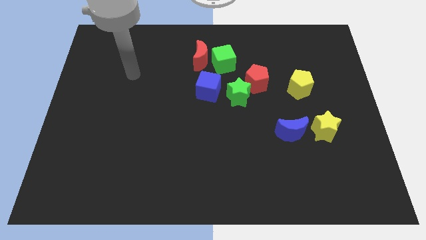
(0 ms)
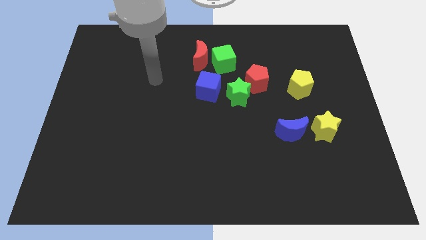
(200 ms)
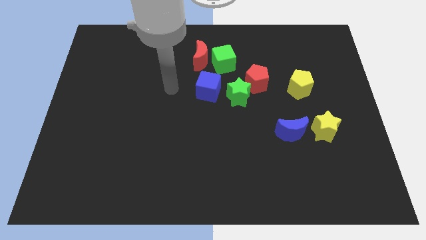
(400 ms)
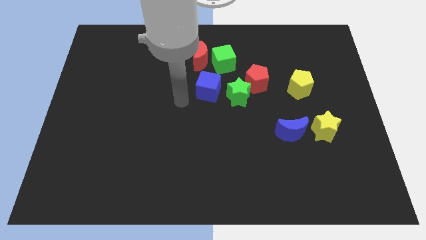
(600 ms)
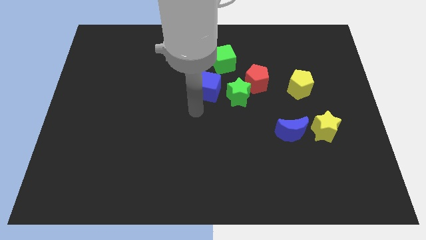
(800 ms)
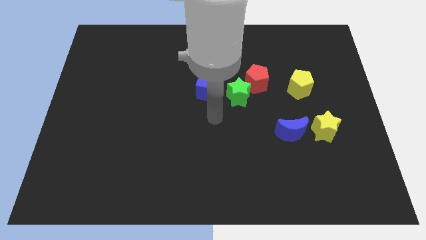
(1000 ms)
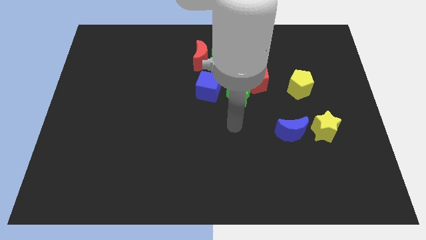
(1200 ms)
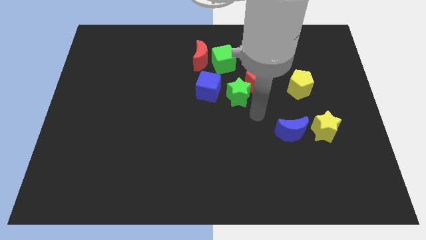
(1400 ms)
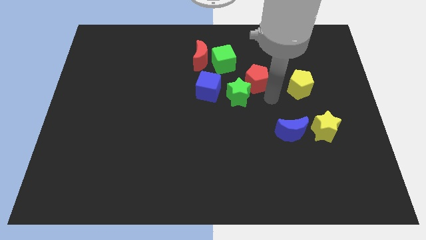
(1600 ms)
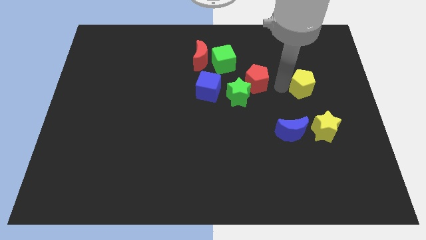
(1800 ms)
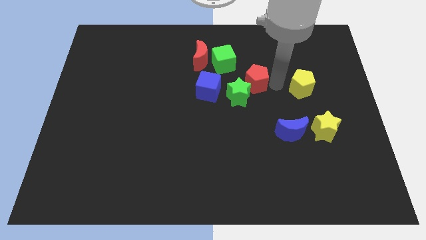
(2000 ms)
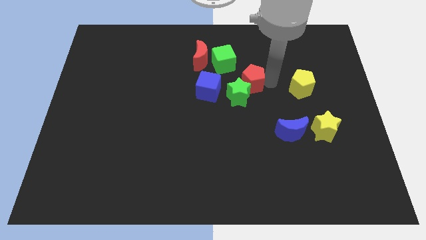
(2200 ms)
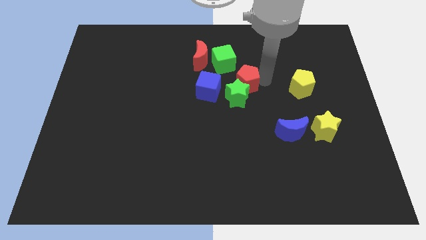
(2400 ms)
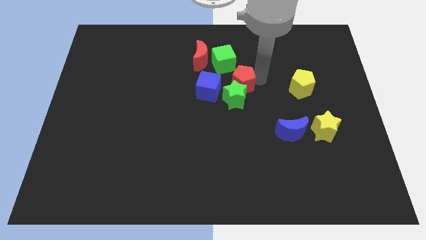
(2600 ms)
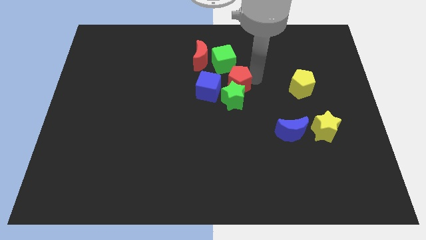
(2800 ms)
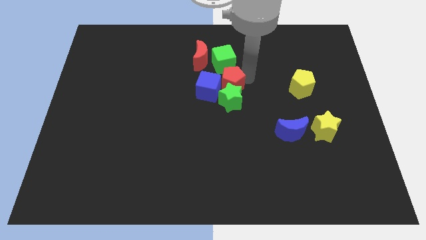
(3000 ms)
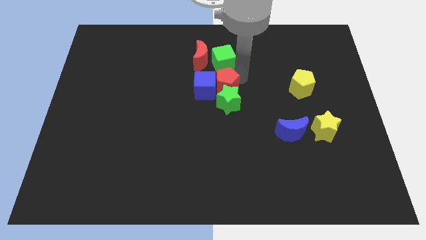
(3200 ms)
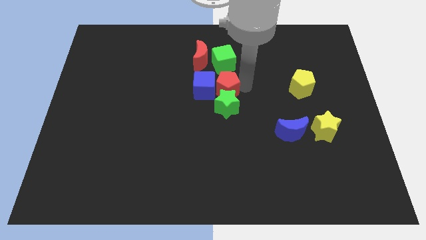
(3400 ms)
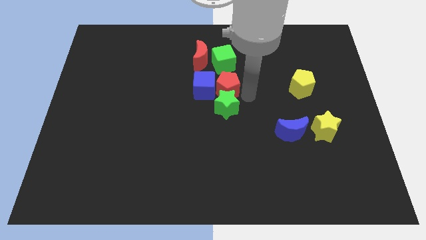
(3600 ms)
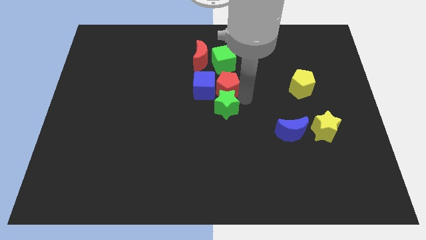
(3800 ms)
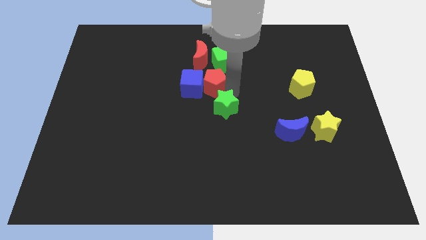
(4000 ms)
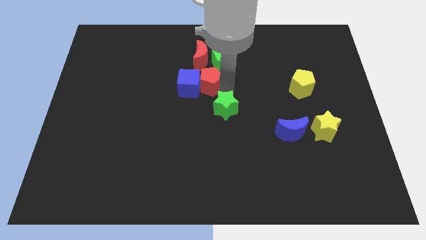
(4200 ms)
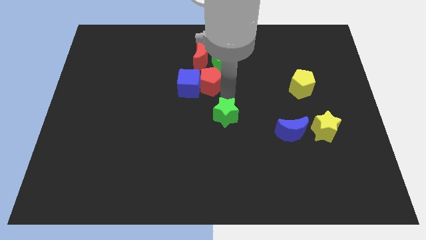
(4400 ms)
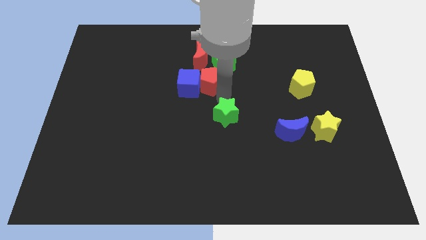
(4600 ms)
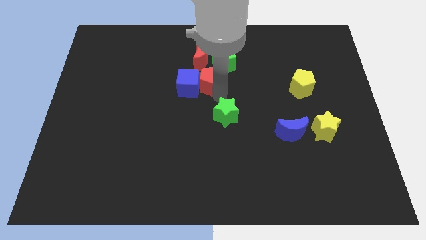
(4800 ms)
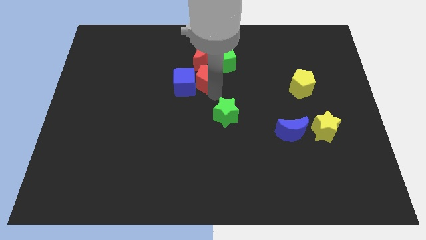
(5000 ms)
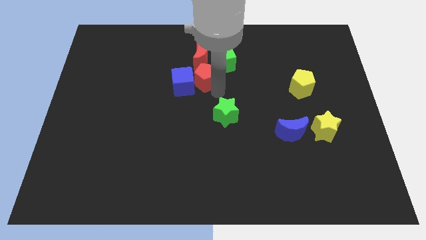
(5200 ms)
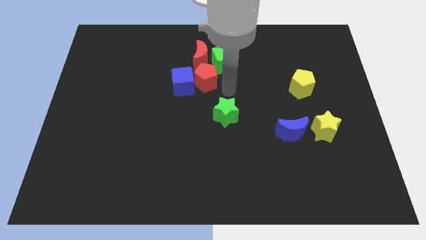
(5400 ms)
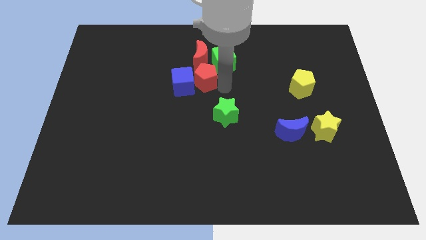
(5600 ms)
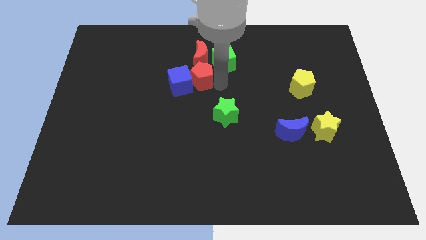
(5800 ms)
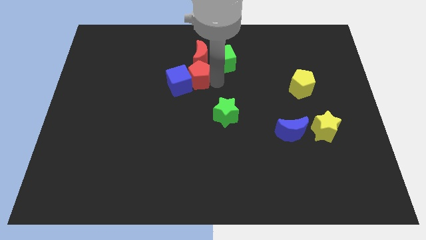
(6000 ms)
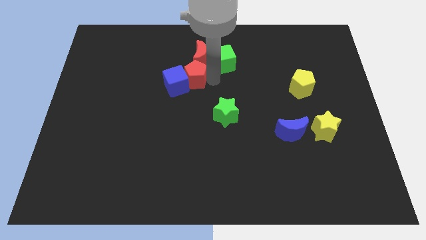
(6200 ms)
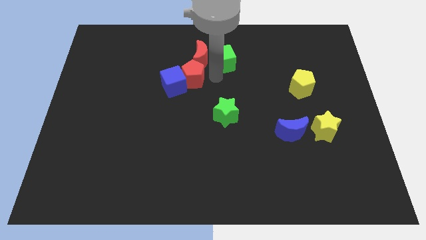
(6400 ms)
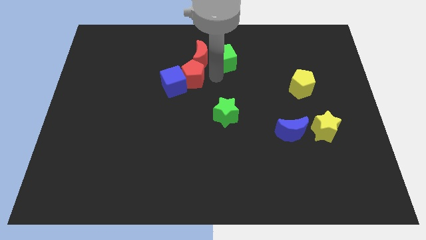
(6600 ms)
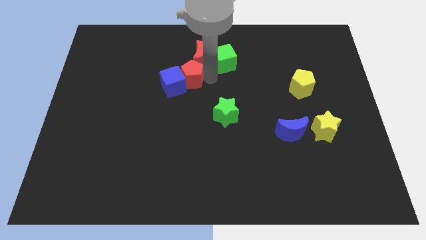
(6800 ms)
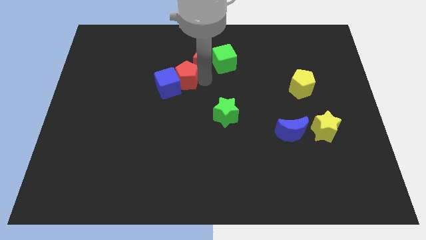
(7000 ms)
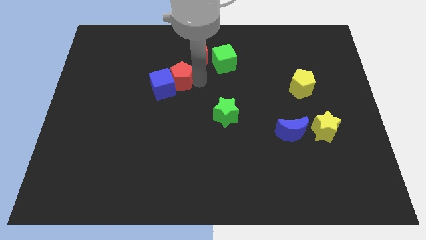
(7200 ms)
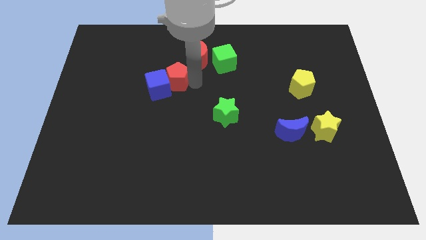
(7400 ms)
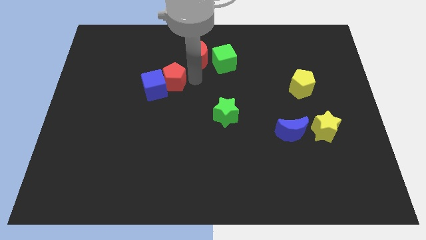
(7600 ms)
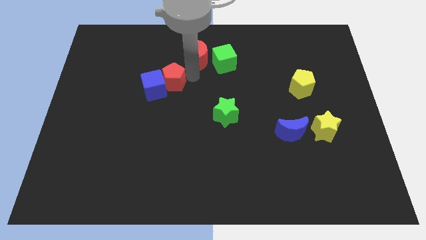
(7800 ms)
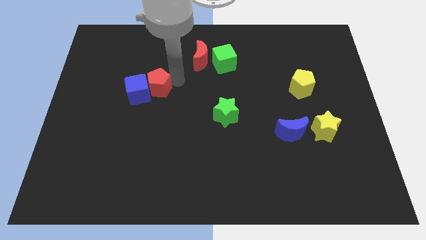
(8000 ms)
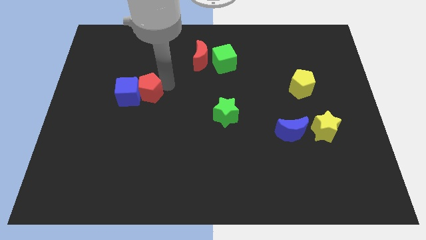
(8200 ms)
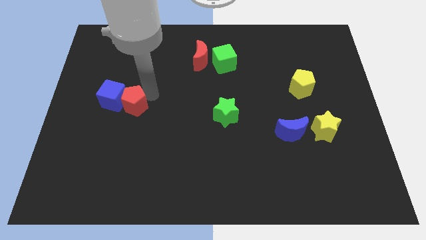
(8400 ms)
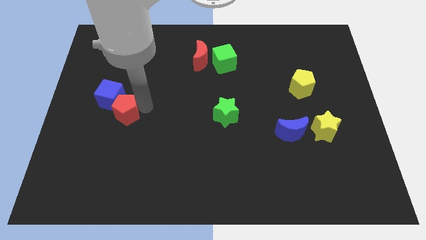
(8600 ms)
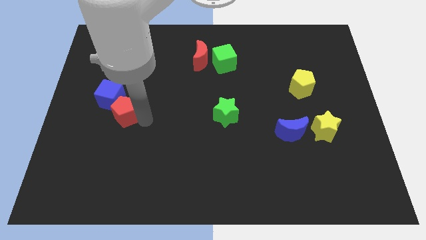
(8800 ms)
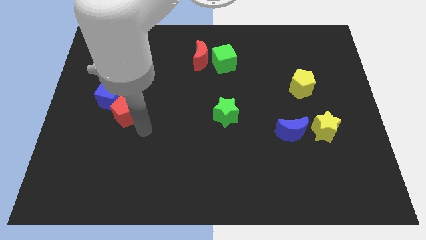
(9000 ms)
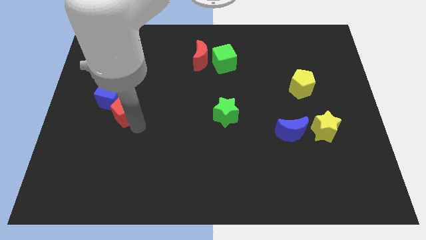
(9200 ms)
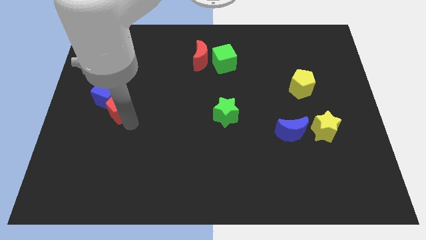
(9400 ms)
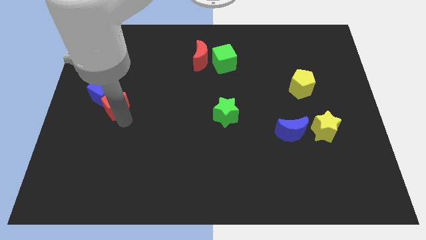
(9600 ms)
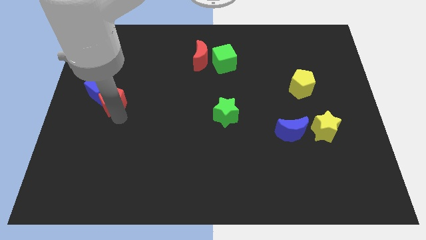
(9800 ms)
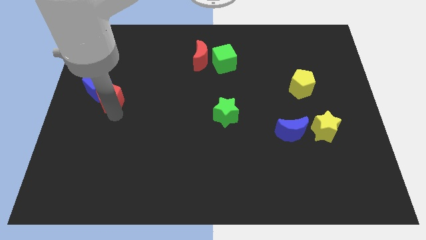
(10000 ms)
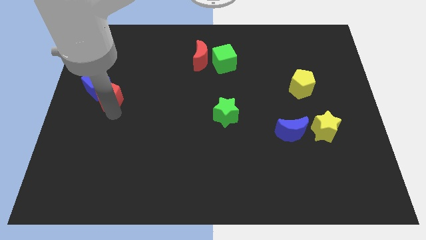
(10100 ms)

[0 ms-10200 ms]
put the red pentagon to the left side of the board

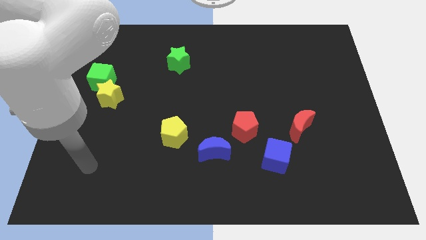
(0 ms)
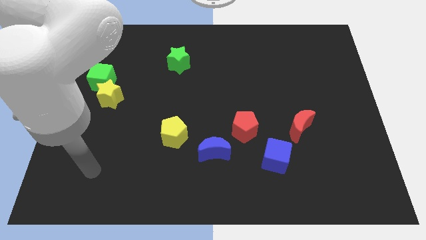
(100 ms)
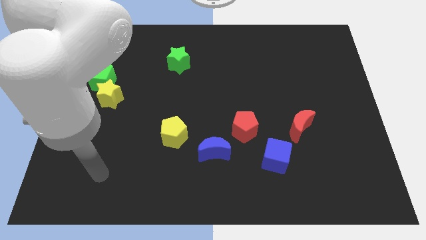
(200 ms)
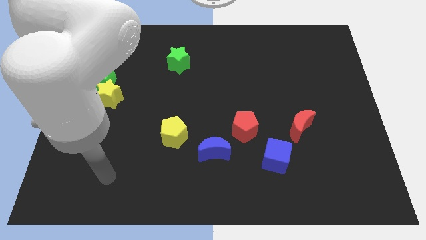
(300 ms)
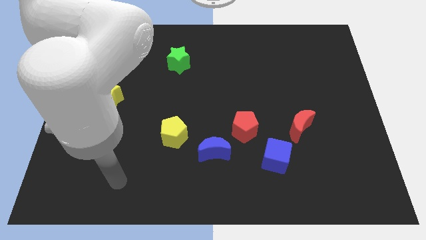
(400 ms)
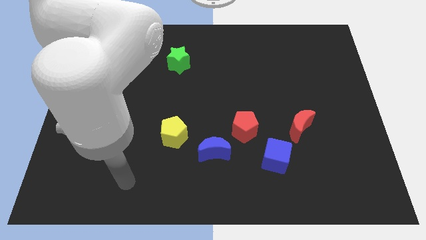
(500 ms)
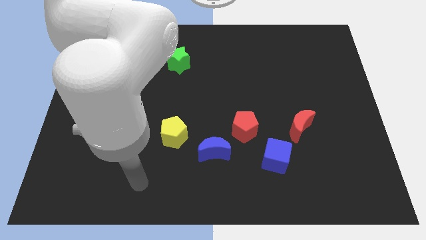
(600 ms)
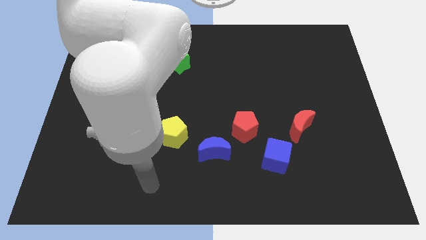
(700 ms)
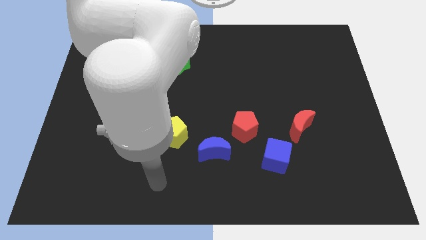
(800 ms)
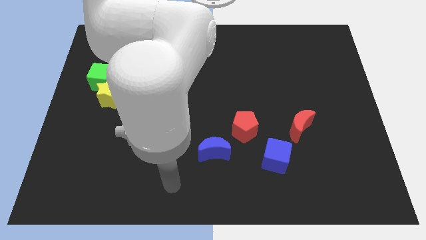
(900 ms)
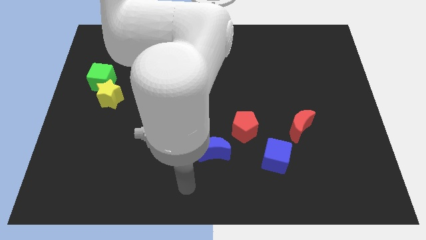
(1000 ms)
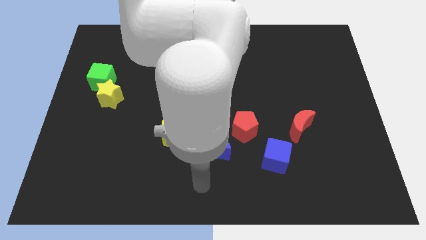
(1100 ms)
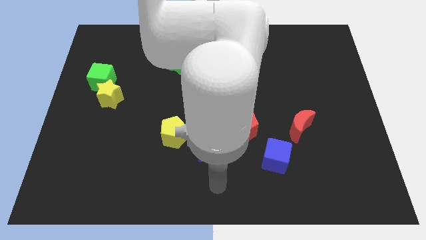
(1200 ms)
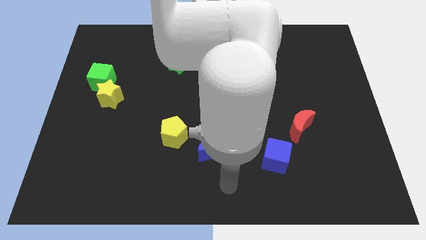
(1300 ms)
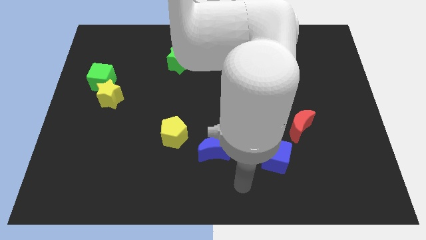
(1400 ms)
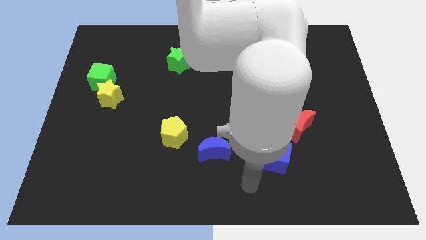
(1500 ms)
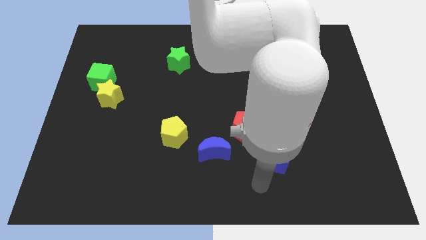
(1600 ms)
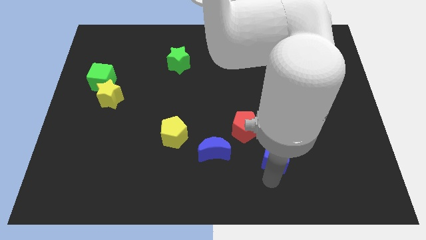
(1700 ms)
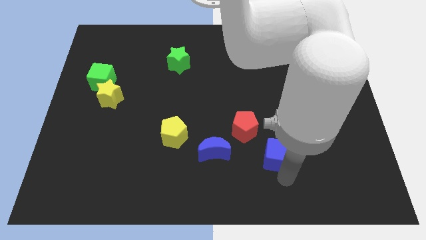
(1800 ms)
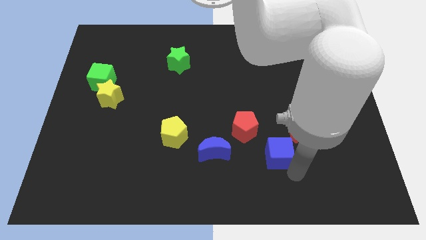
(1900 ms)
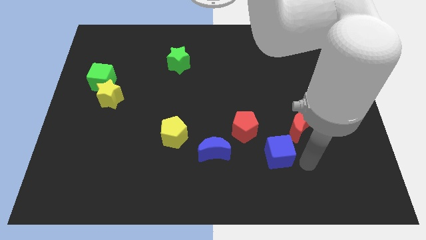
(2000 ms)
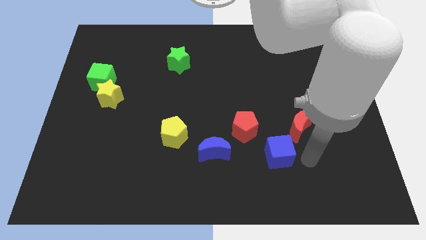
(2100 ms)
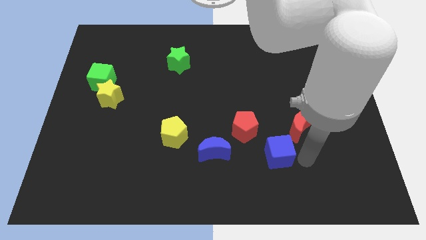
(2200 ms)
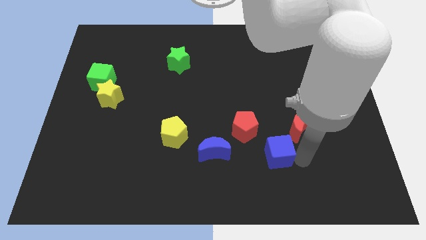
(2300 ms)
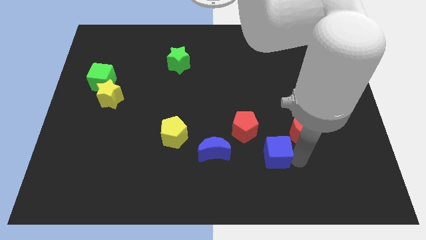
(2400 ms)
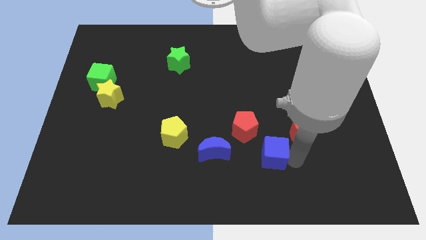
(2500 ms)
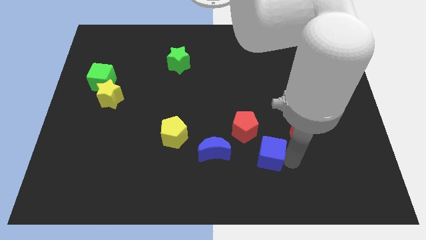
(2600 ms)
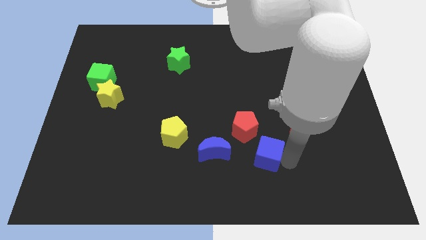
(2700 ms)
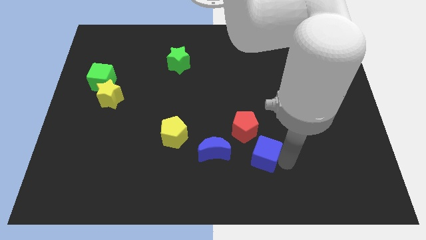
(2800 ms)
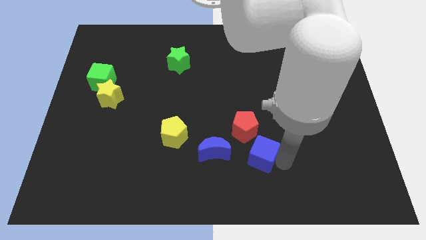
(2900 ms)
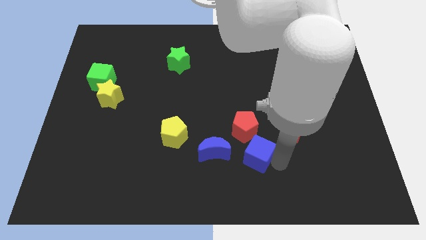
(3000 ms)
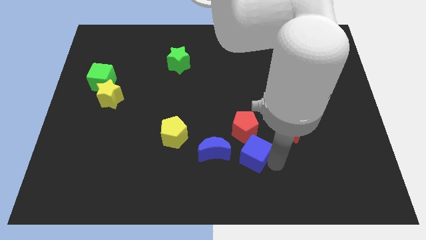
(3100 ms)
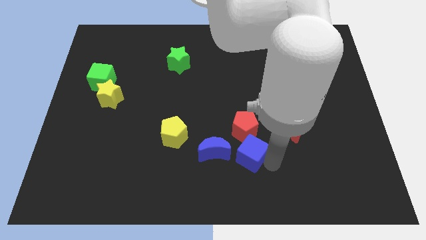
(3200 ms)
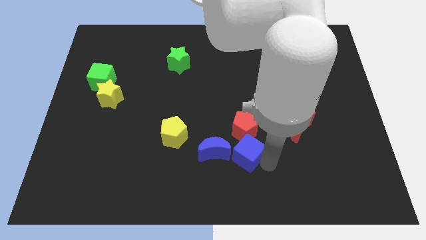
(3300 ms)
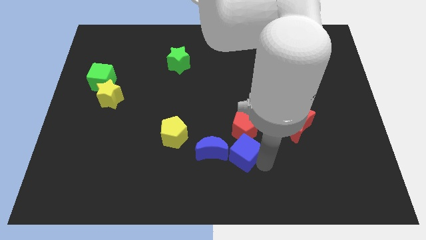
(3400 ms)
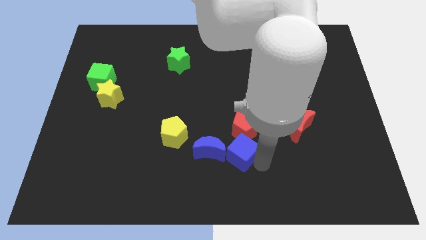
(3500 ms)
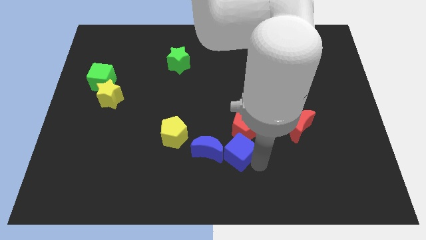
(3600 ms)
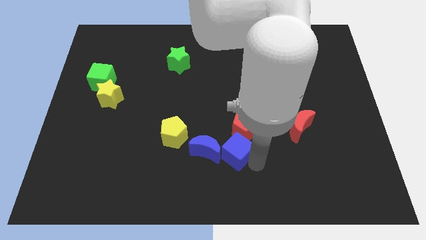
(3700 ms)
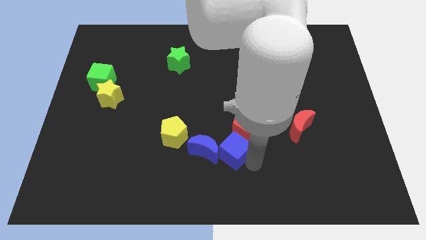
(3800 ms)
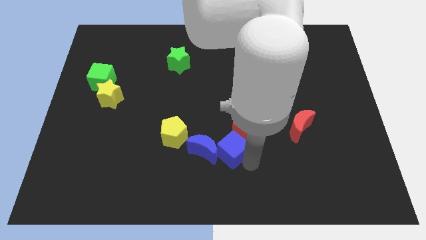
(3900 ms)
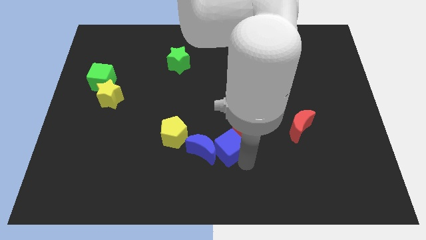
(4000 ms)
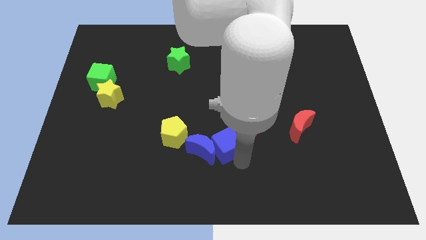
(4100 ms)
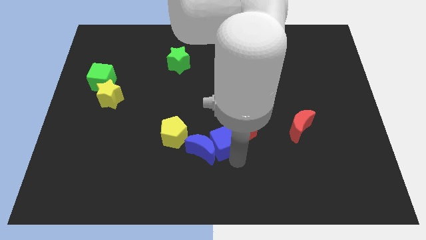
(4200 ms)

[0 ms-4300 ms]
put the blue cube to the middle of the board
